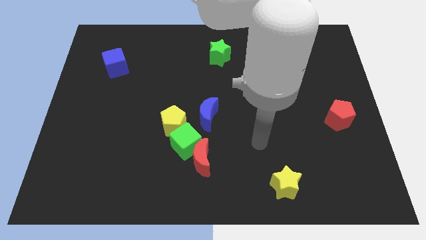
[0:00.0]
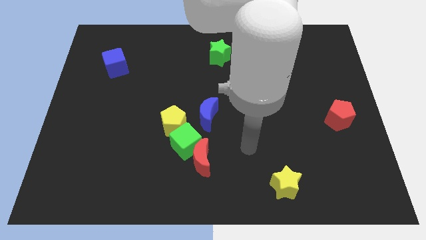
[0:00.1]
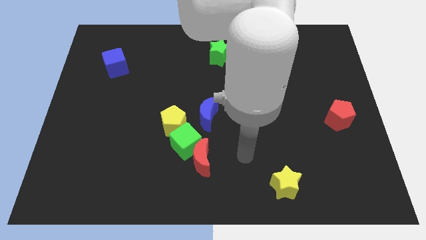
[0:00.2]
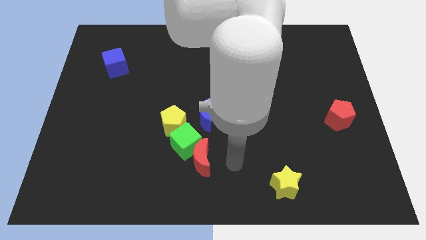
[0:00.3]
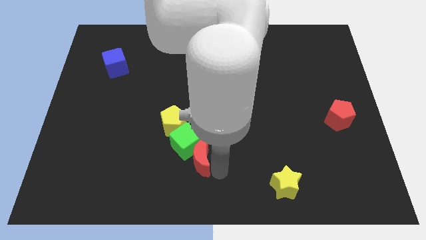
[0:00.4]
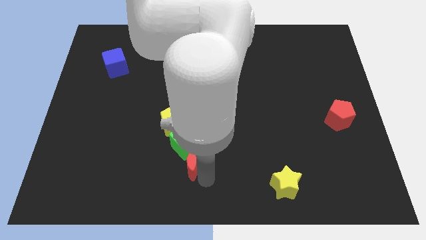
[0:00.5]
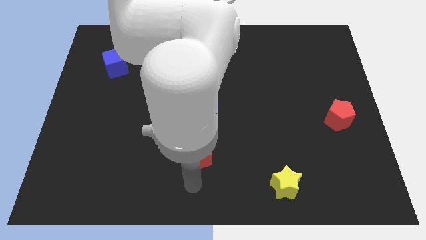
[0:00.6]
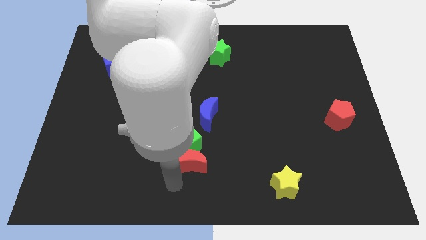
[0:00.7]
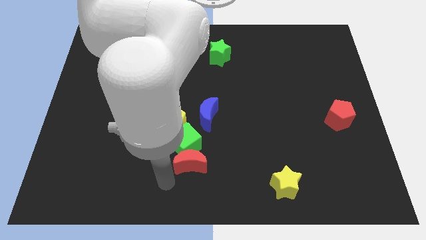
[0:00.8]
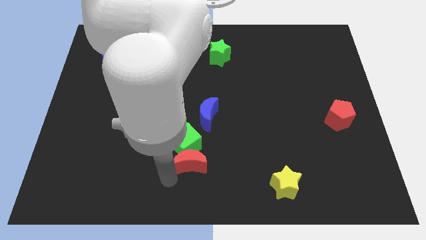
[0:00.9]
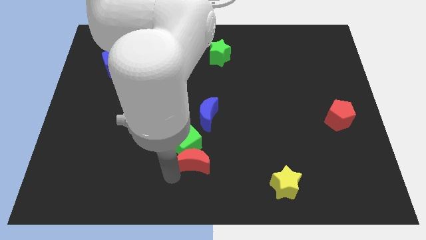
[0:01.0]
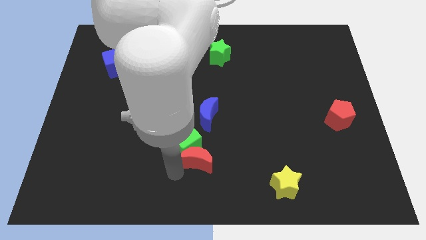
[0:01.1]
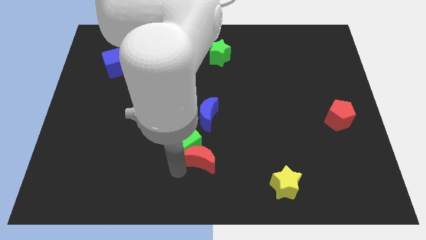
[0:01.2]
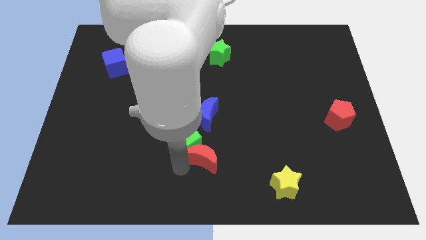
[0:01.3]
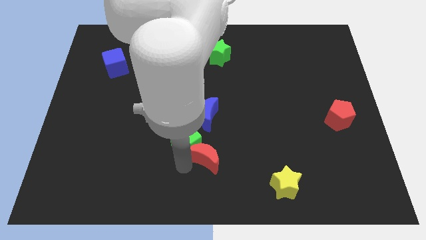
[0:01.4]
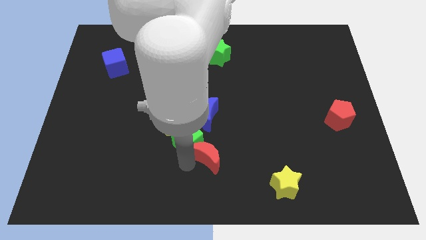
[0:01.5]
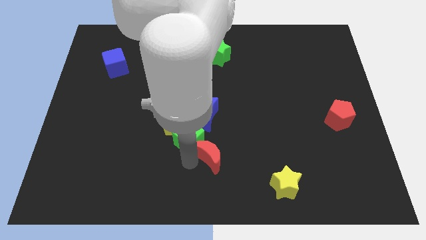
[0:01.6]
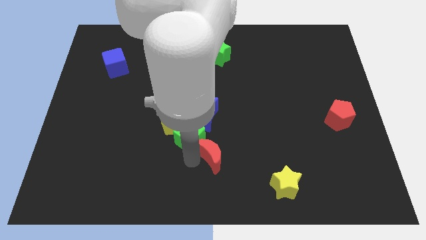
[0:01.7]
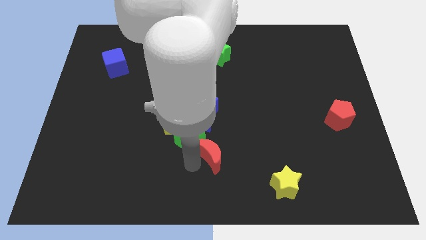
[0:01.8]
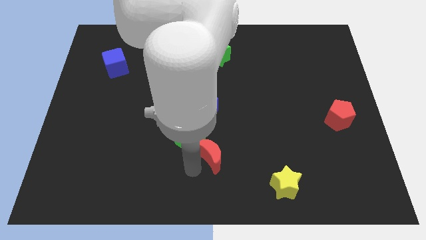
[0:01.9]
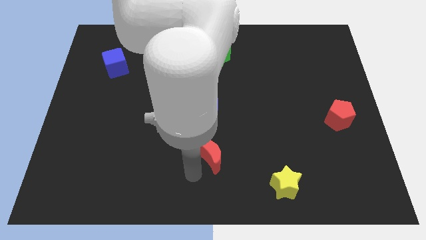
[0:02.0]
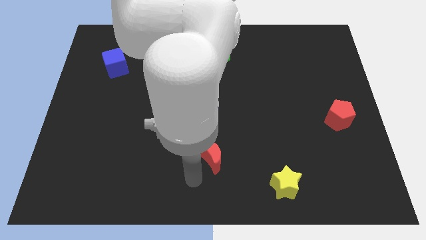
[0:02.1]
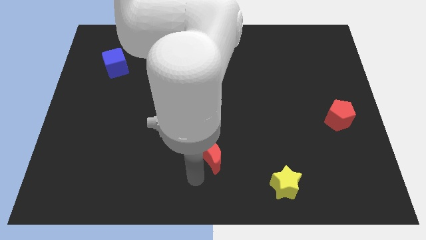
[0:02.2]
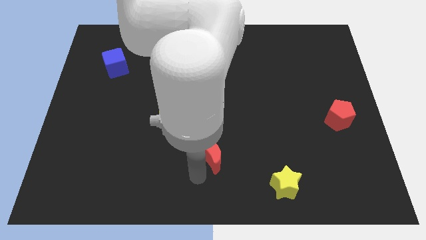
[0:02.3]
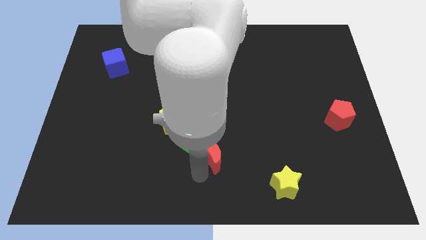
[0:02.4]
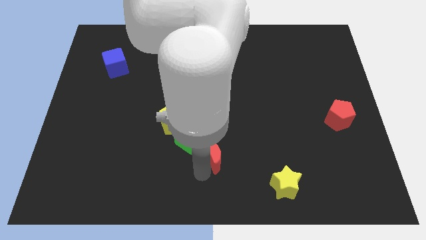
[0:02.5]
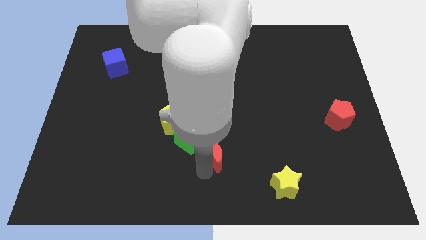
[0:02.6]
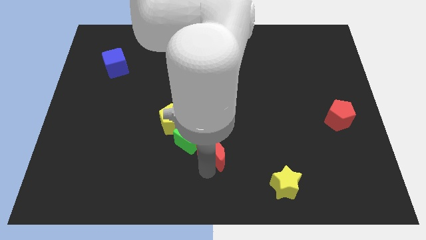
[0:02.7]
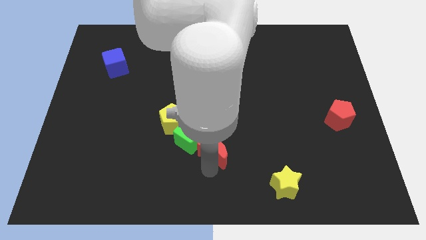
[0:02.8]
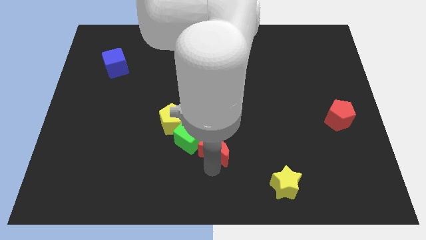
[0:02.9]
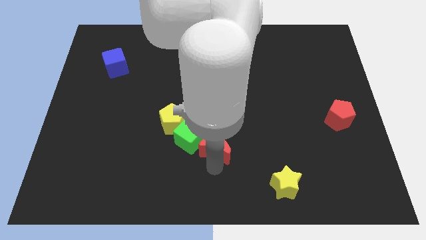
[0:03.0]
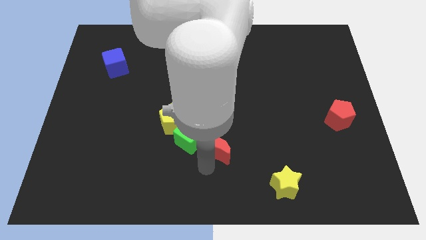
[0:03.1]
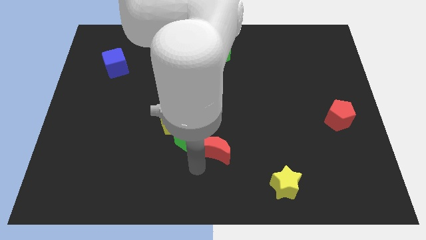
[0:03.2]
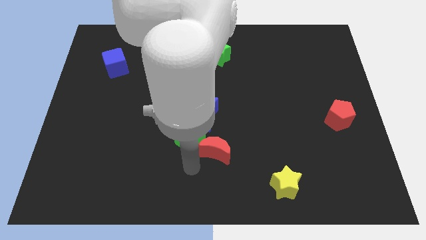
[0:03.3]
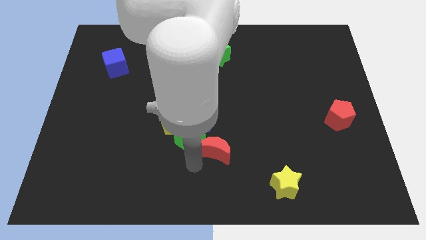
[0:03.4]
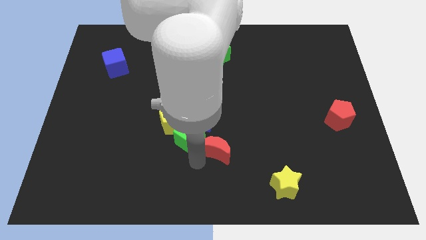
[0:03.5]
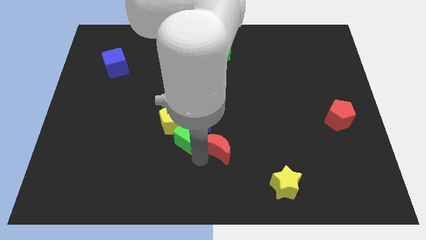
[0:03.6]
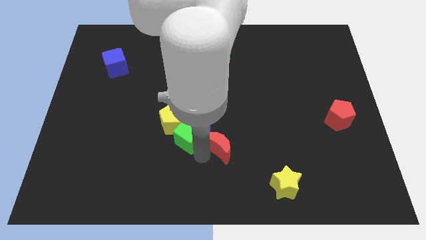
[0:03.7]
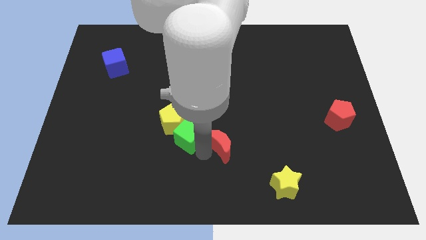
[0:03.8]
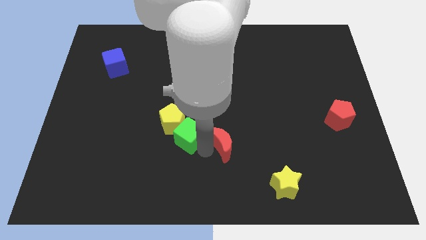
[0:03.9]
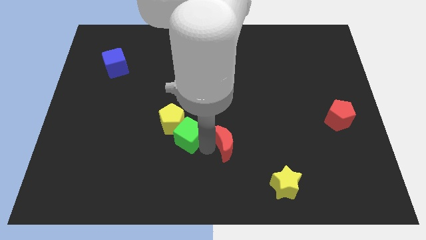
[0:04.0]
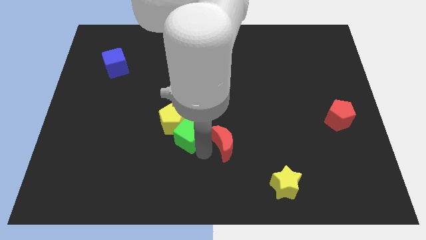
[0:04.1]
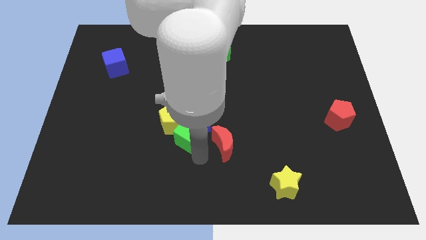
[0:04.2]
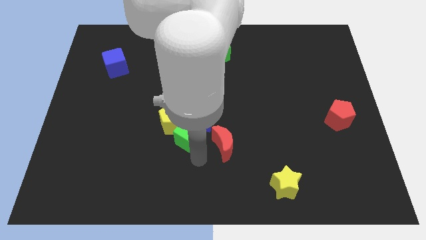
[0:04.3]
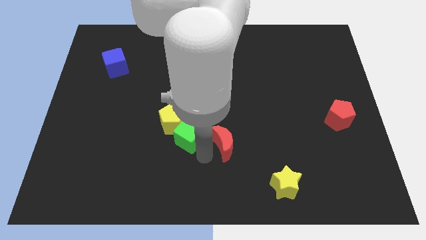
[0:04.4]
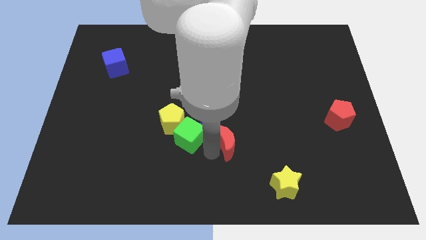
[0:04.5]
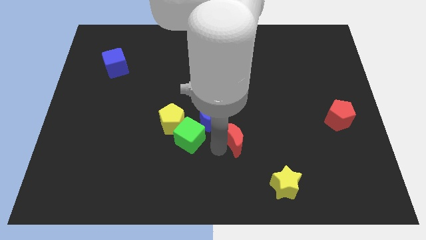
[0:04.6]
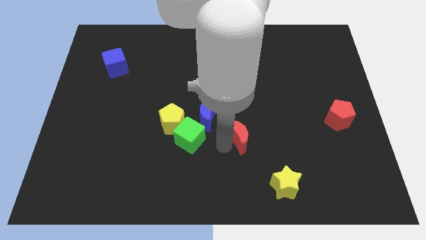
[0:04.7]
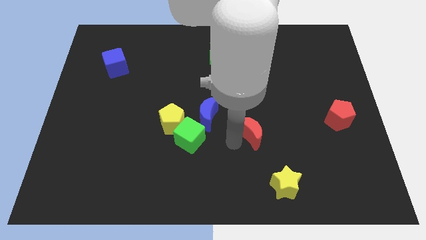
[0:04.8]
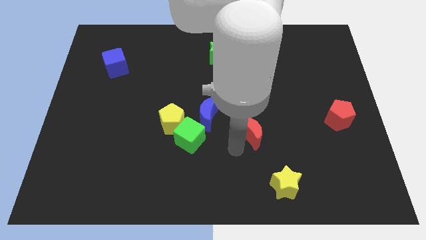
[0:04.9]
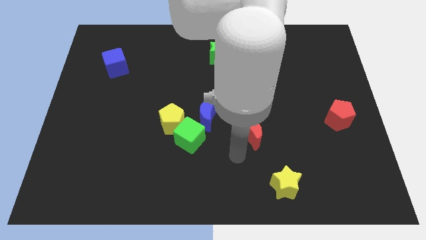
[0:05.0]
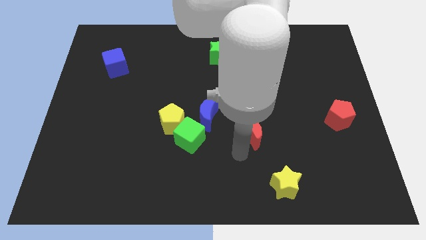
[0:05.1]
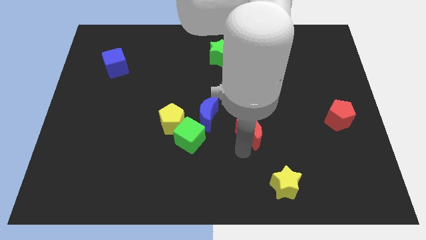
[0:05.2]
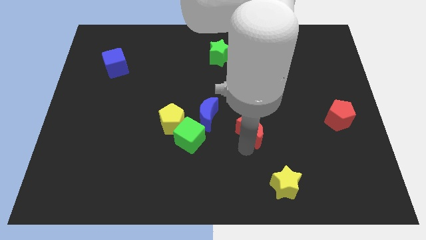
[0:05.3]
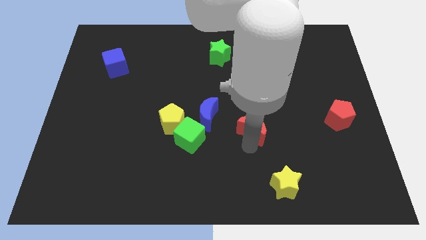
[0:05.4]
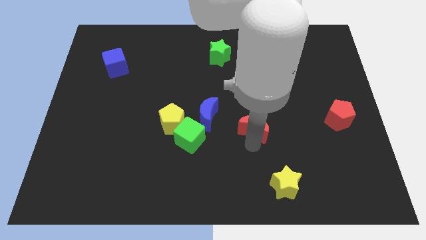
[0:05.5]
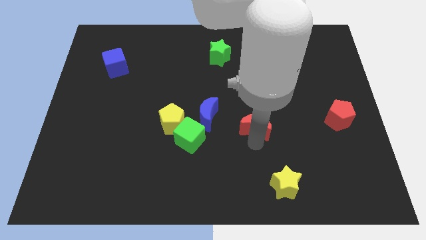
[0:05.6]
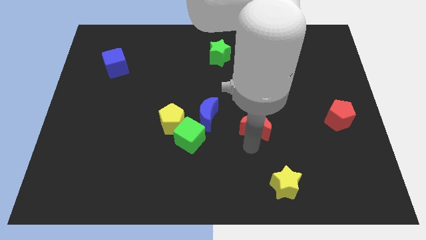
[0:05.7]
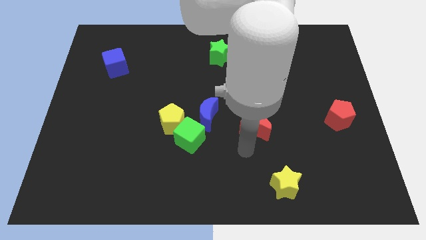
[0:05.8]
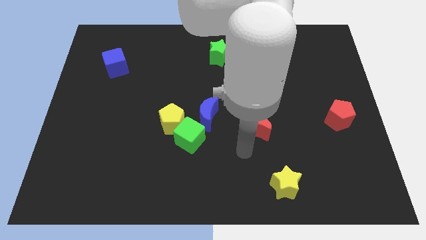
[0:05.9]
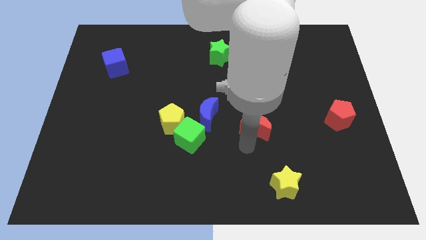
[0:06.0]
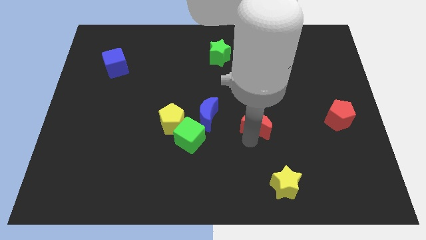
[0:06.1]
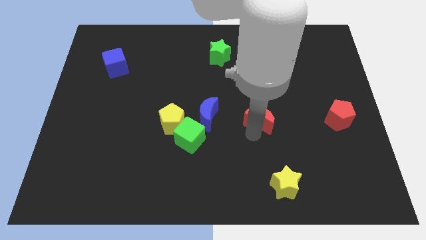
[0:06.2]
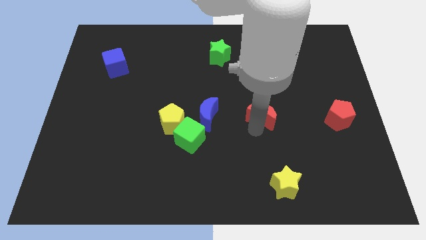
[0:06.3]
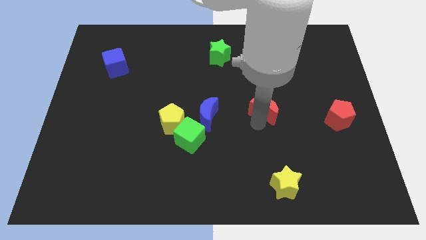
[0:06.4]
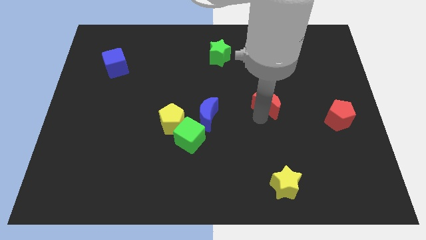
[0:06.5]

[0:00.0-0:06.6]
move the red moon upwards and to the right

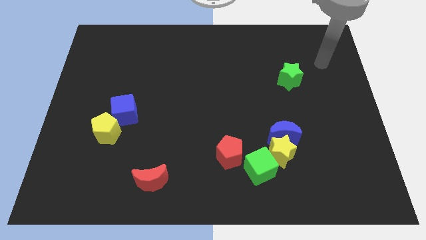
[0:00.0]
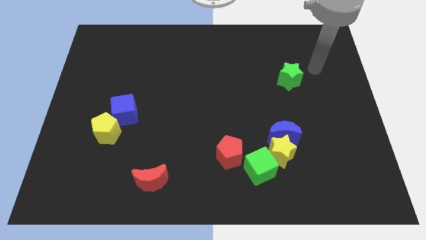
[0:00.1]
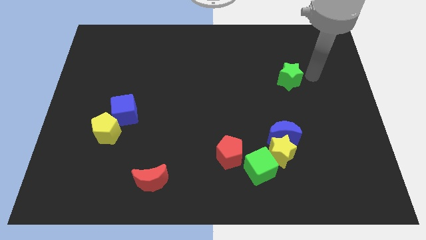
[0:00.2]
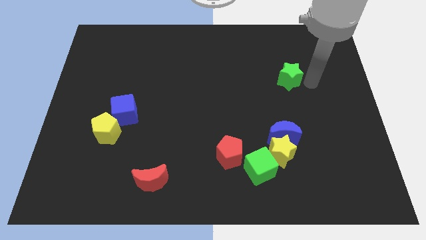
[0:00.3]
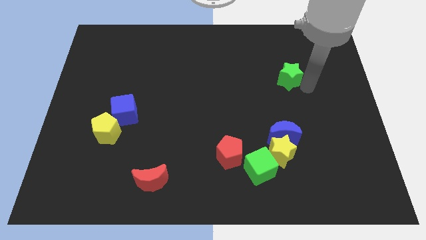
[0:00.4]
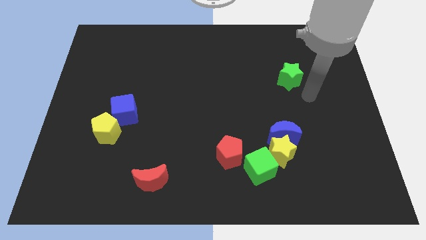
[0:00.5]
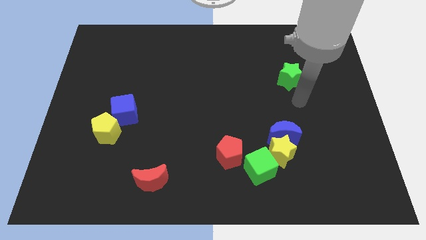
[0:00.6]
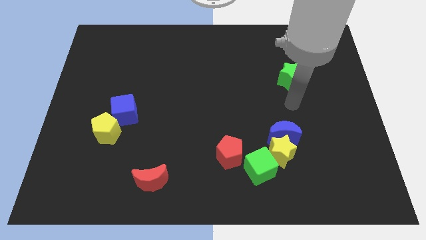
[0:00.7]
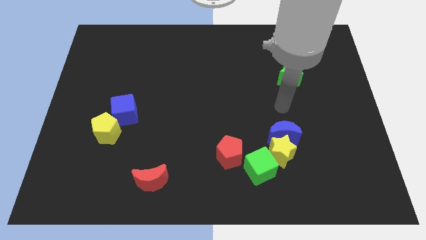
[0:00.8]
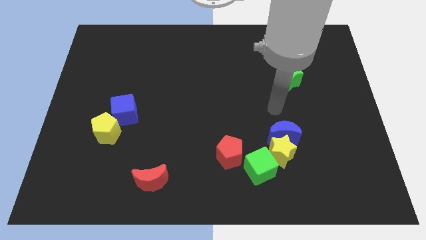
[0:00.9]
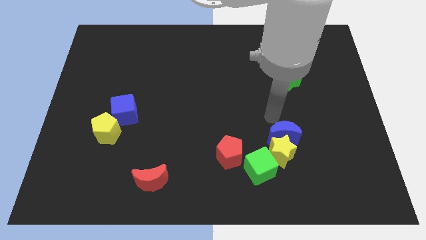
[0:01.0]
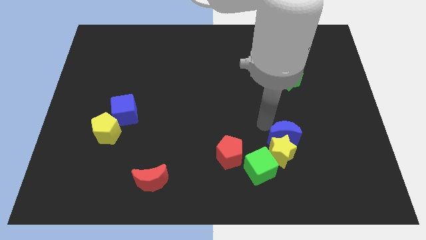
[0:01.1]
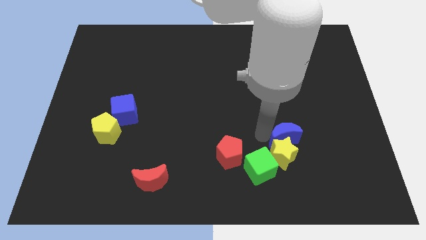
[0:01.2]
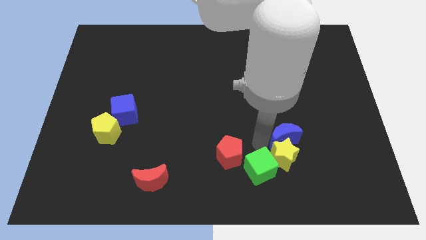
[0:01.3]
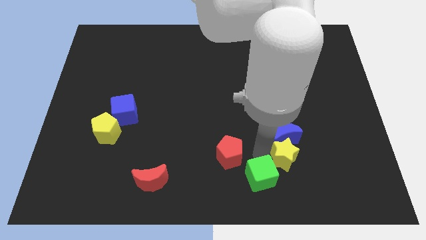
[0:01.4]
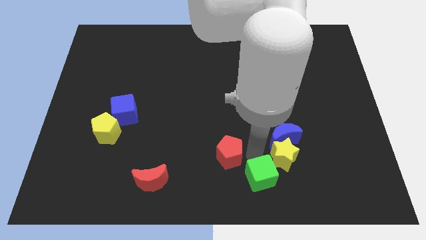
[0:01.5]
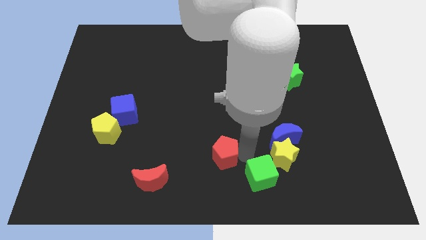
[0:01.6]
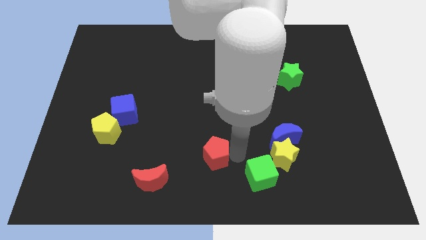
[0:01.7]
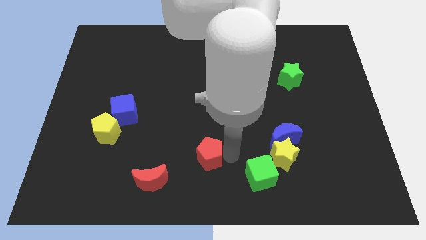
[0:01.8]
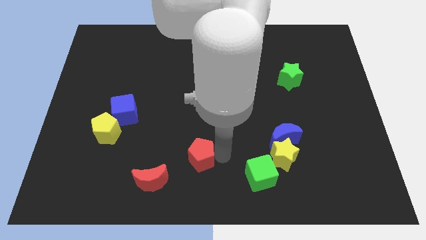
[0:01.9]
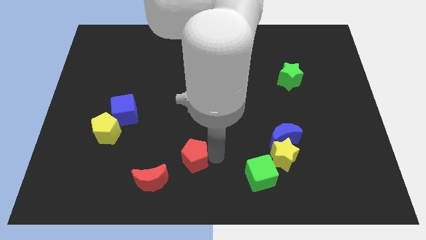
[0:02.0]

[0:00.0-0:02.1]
slide the red pentagon slightly left
